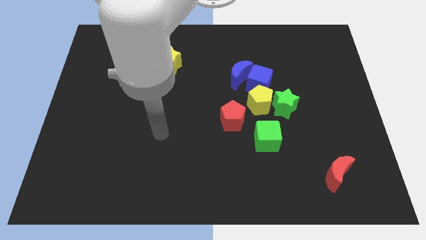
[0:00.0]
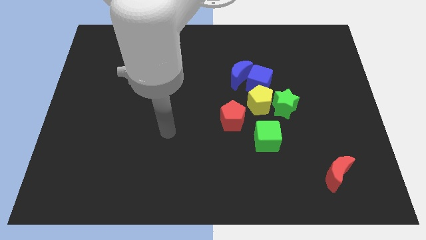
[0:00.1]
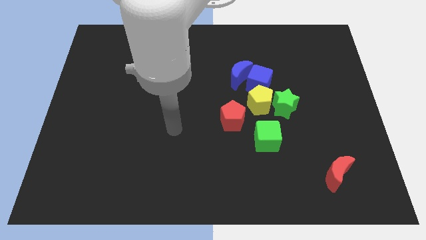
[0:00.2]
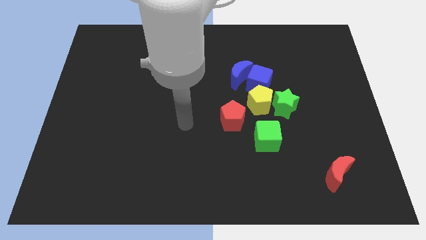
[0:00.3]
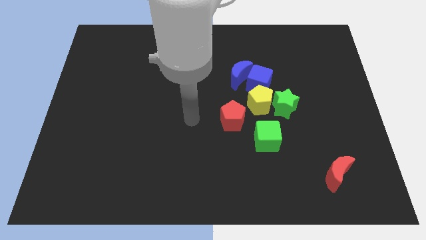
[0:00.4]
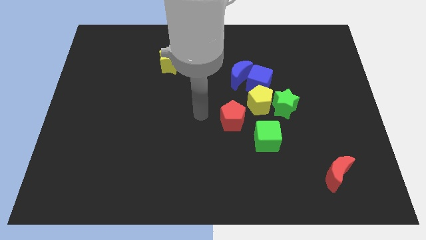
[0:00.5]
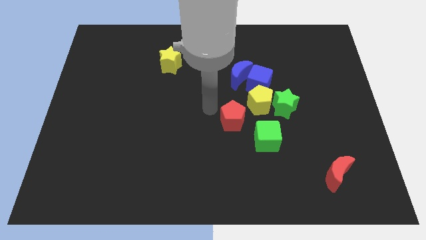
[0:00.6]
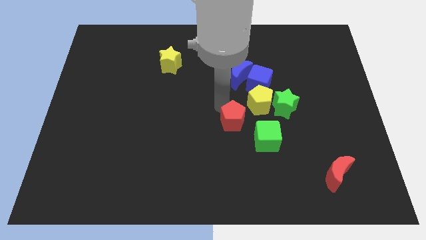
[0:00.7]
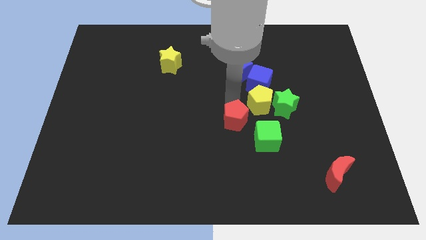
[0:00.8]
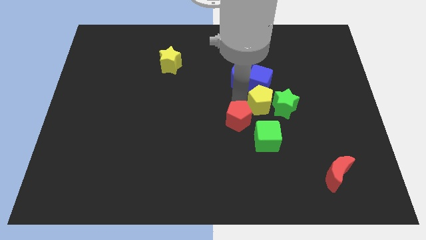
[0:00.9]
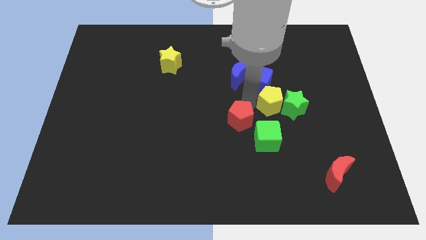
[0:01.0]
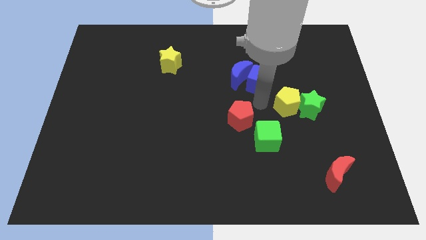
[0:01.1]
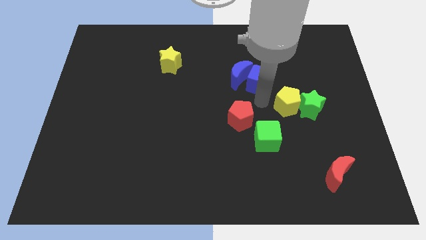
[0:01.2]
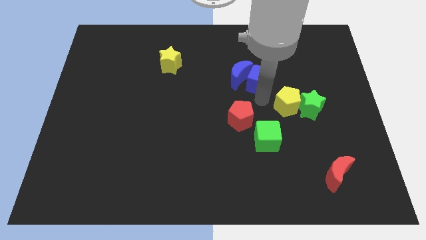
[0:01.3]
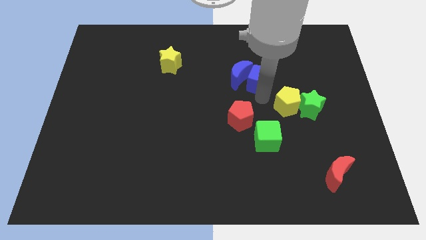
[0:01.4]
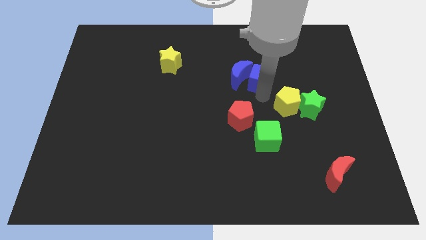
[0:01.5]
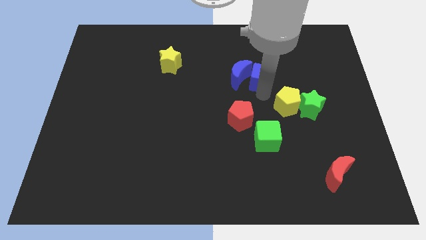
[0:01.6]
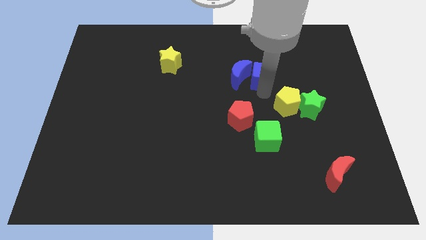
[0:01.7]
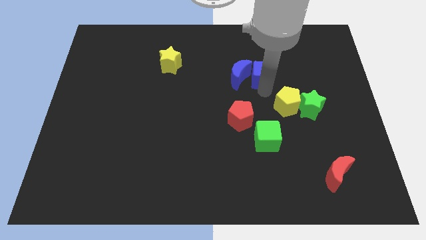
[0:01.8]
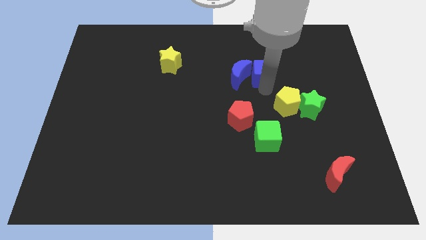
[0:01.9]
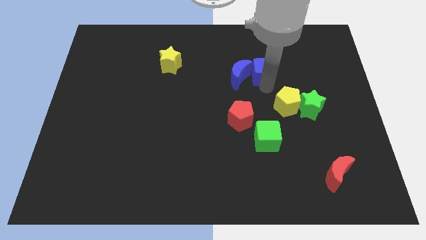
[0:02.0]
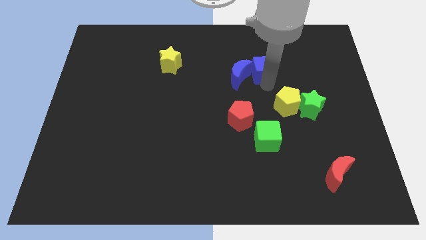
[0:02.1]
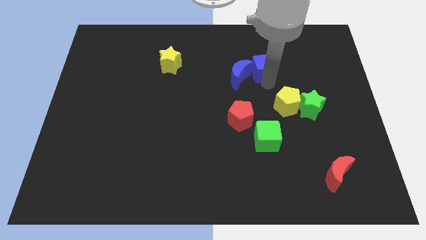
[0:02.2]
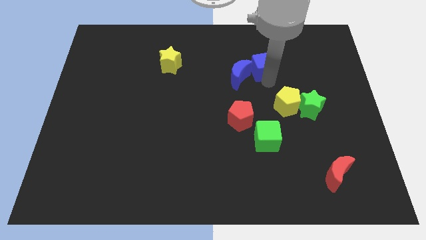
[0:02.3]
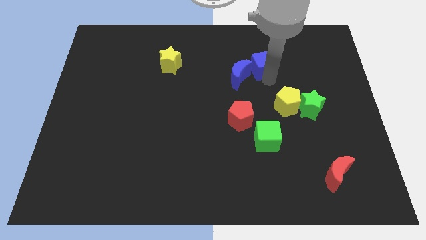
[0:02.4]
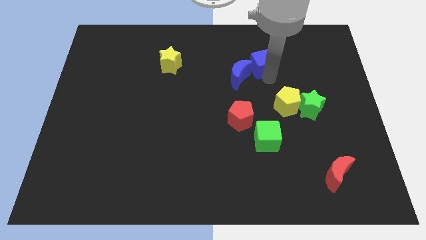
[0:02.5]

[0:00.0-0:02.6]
pull the blue cube apart from the blue moon, yellow pentagon, and green star

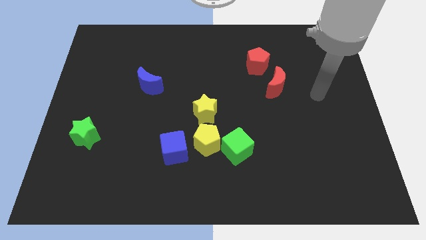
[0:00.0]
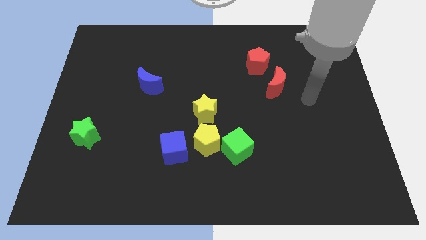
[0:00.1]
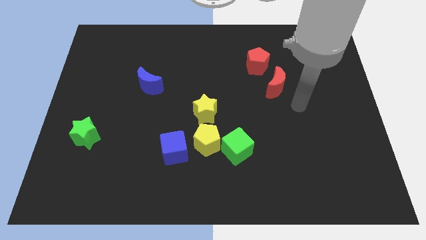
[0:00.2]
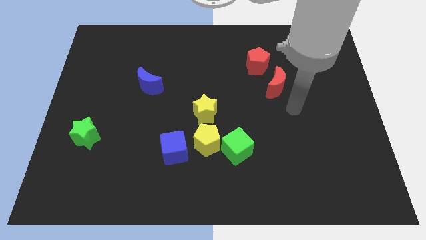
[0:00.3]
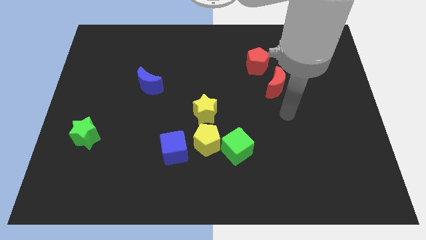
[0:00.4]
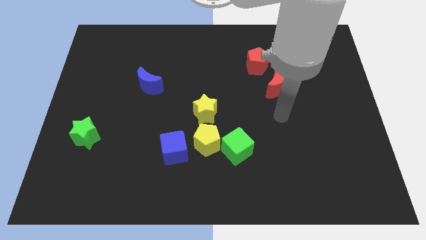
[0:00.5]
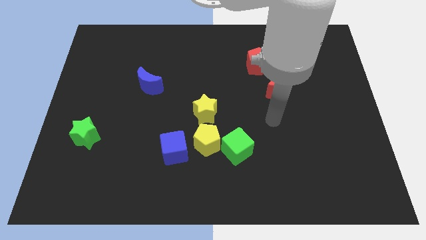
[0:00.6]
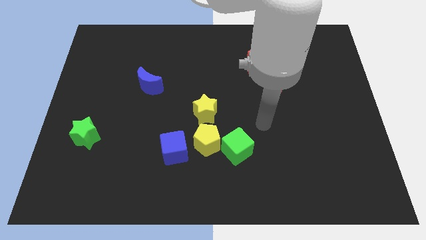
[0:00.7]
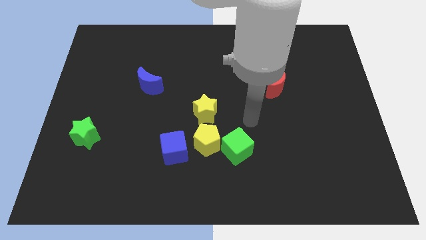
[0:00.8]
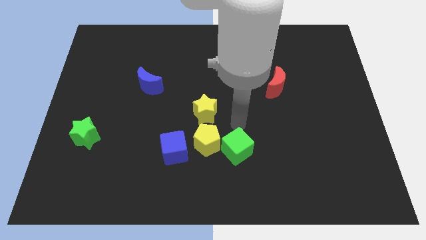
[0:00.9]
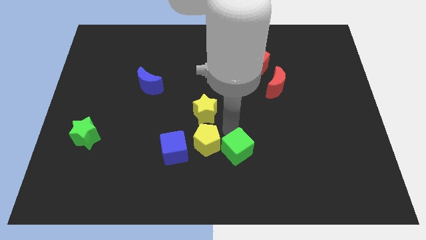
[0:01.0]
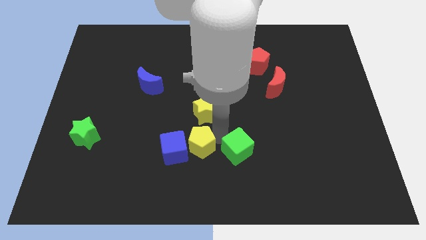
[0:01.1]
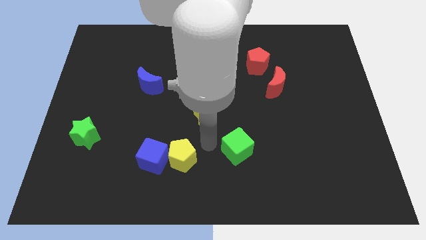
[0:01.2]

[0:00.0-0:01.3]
pull the green cube apart from the yellow pentagon

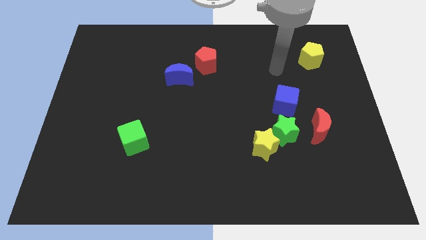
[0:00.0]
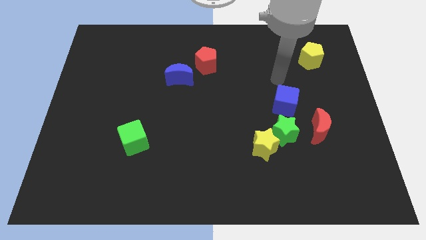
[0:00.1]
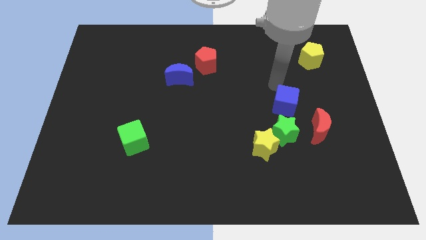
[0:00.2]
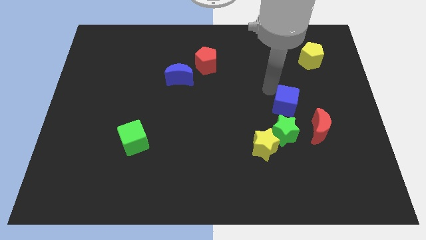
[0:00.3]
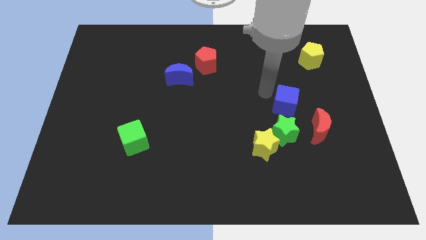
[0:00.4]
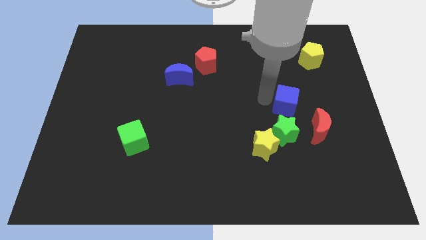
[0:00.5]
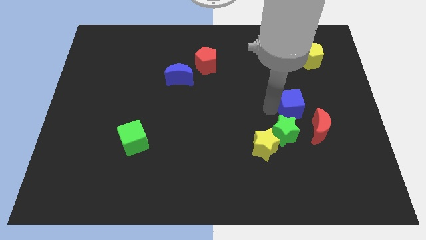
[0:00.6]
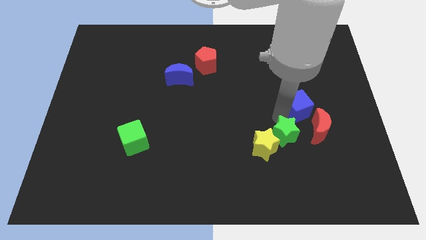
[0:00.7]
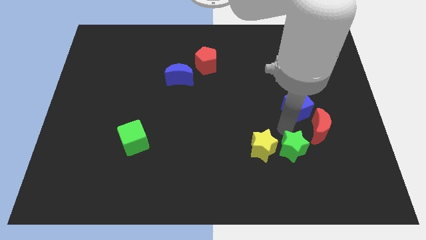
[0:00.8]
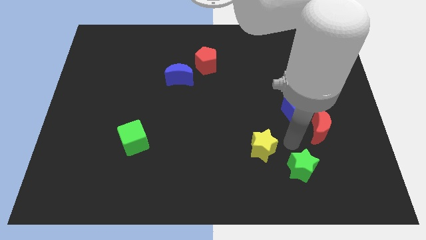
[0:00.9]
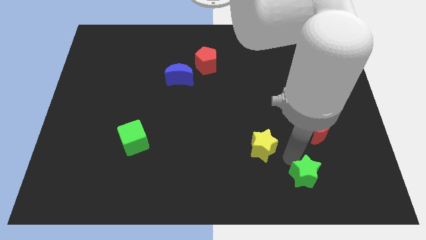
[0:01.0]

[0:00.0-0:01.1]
pull the yellow star apart from the green star

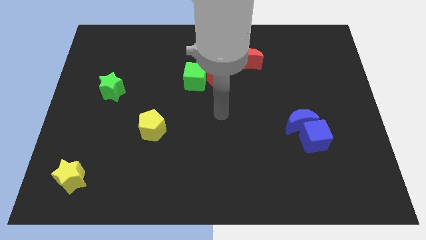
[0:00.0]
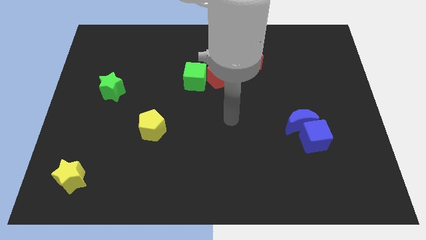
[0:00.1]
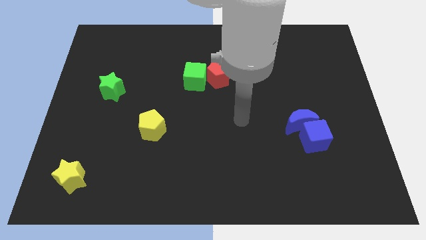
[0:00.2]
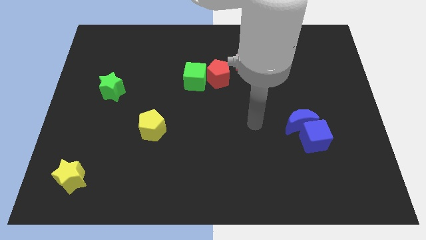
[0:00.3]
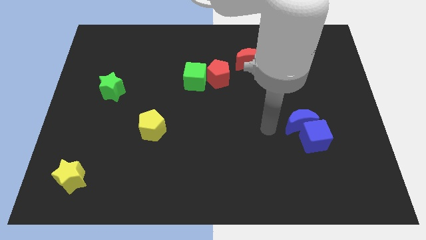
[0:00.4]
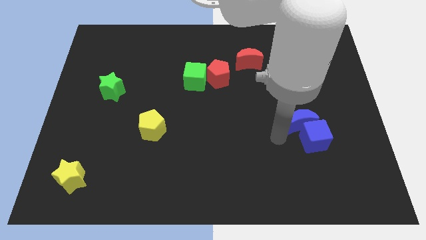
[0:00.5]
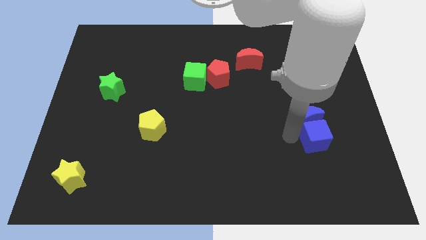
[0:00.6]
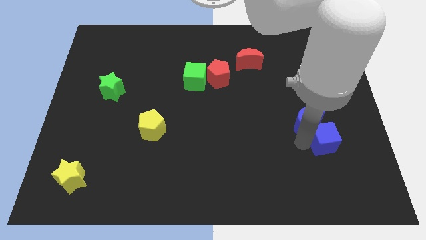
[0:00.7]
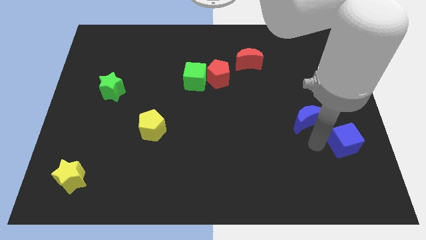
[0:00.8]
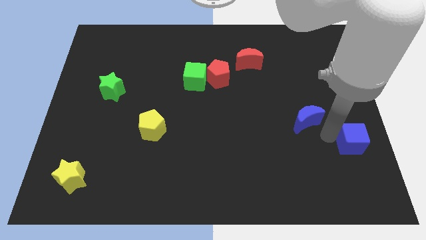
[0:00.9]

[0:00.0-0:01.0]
move the blue moon away from the blue cube

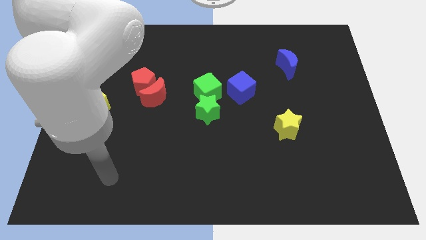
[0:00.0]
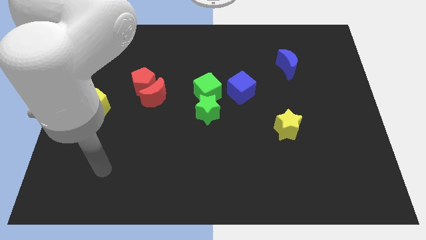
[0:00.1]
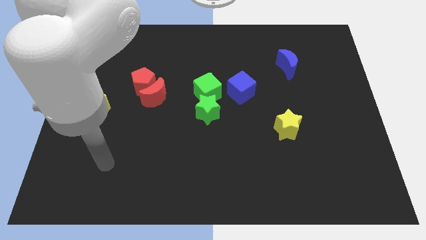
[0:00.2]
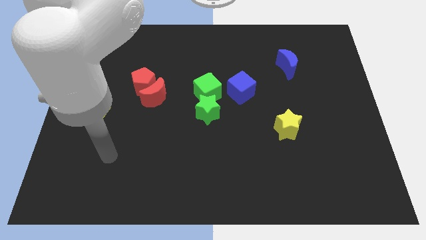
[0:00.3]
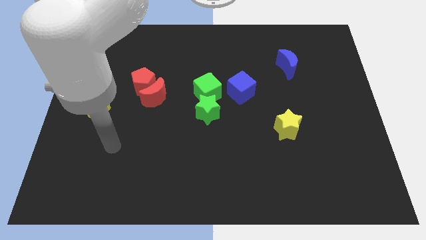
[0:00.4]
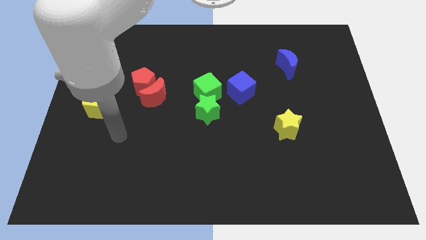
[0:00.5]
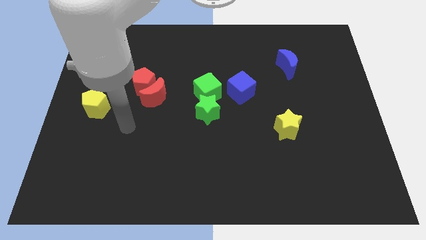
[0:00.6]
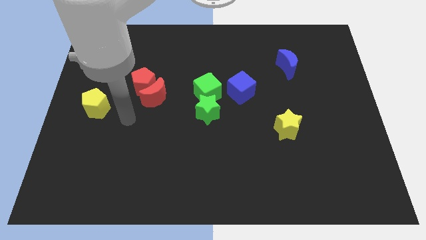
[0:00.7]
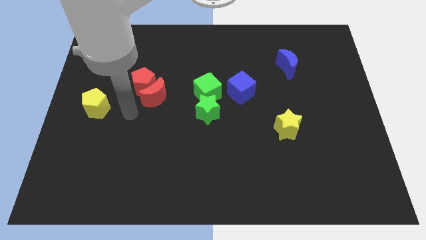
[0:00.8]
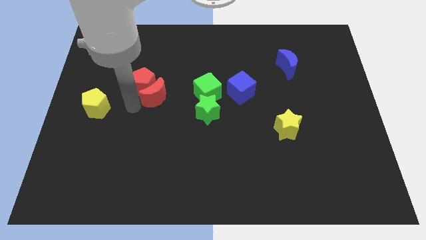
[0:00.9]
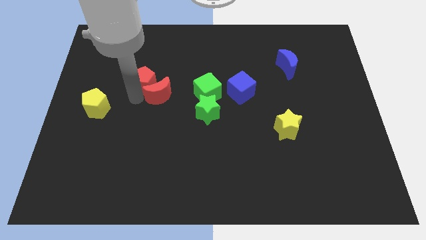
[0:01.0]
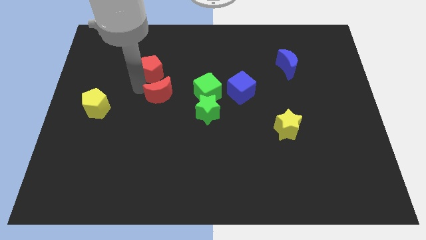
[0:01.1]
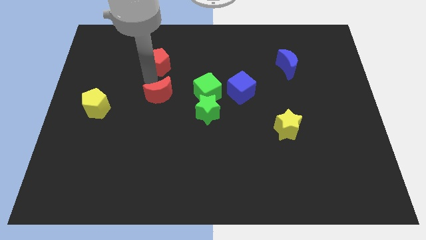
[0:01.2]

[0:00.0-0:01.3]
separate the red moon from the red pentagon

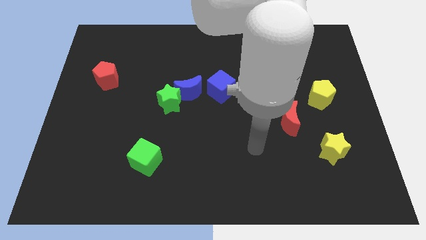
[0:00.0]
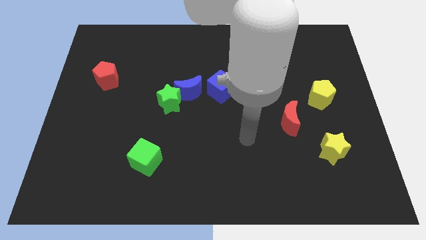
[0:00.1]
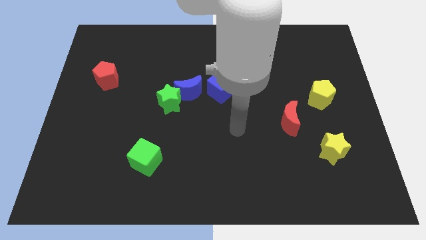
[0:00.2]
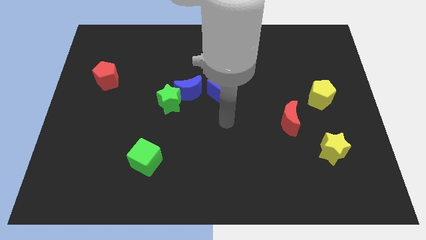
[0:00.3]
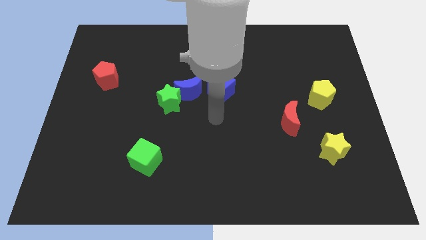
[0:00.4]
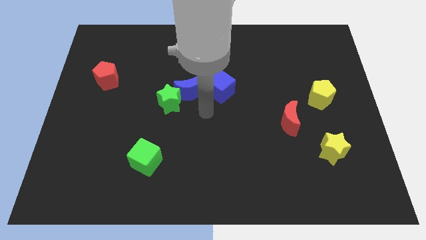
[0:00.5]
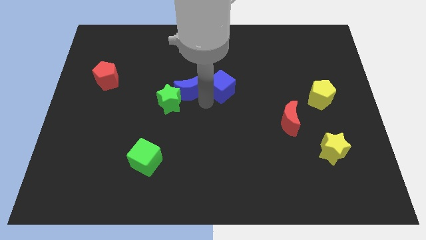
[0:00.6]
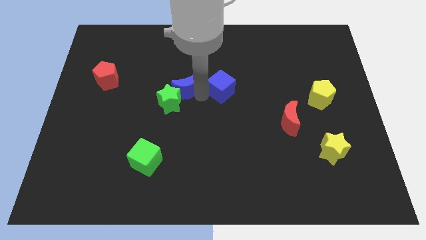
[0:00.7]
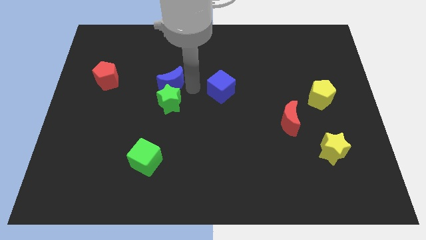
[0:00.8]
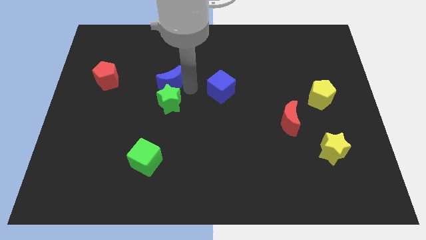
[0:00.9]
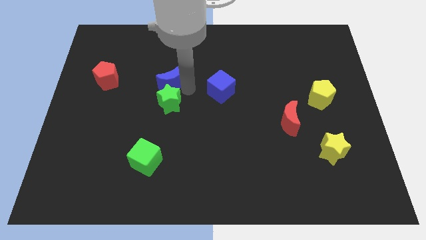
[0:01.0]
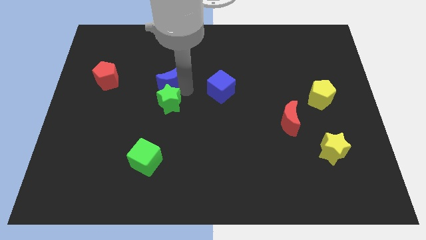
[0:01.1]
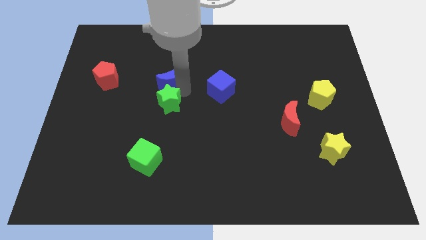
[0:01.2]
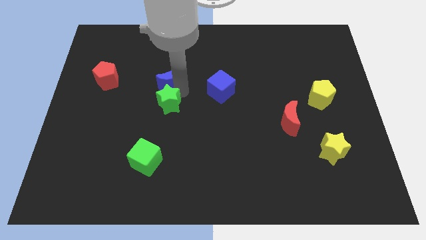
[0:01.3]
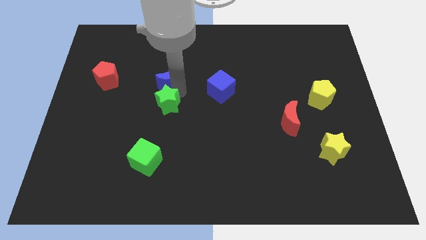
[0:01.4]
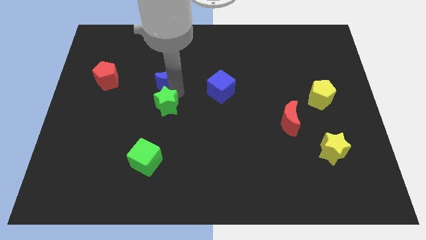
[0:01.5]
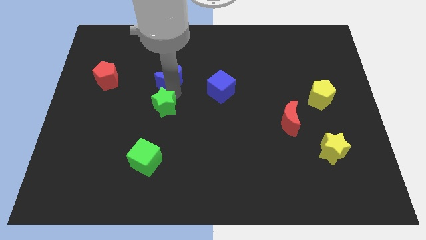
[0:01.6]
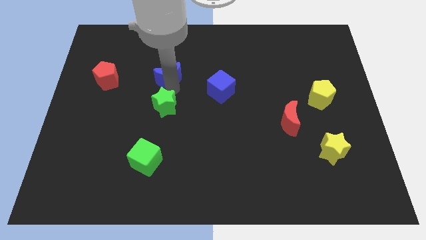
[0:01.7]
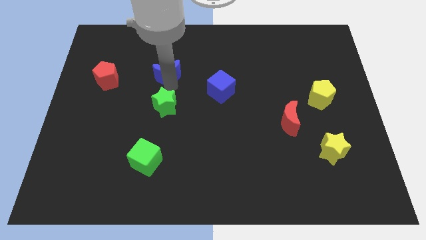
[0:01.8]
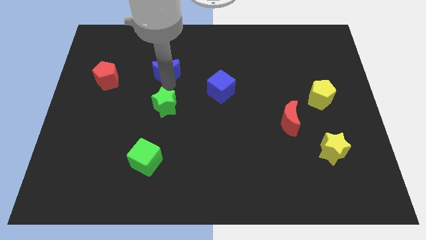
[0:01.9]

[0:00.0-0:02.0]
pull the green star apart from the blue moon

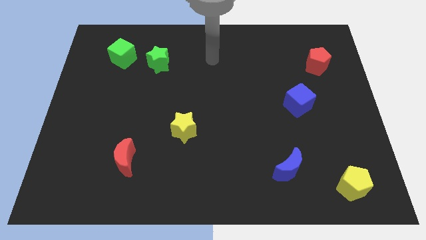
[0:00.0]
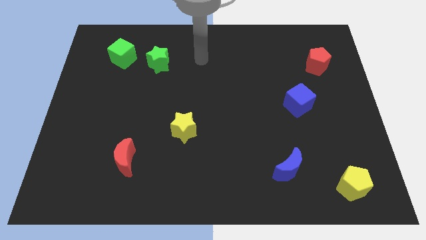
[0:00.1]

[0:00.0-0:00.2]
separate the green cube from the green star
